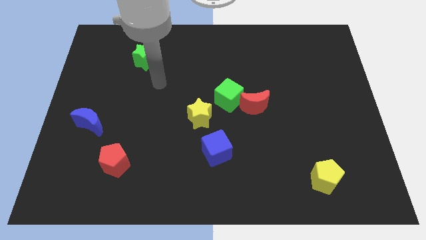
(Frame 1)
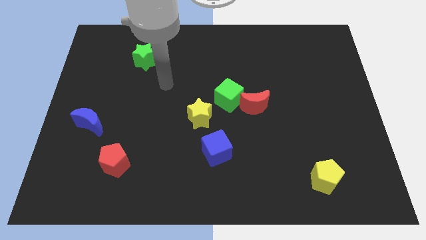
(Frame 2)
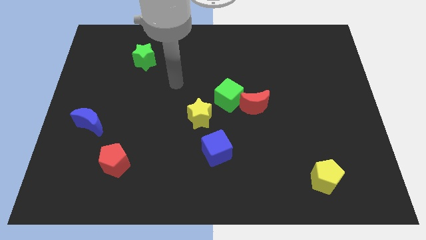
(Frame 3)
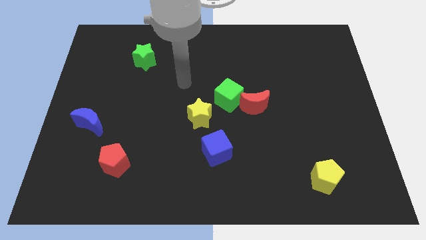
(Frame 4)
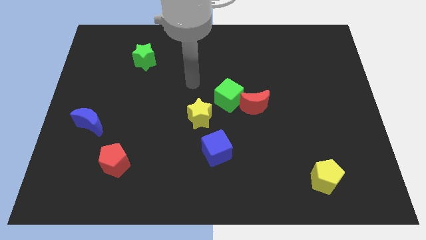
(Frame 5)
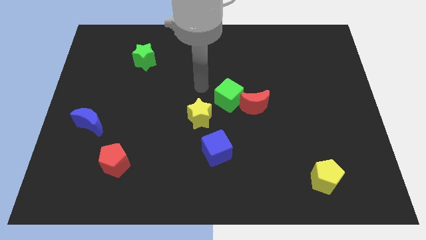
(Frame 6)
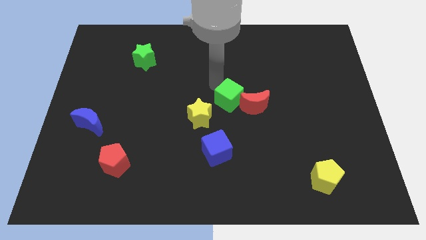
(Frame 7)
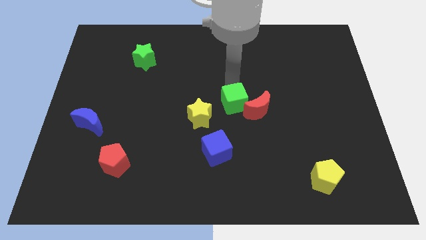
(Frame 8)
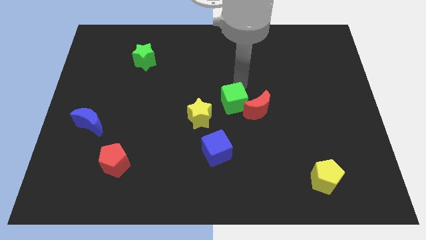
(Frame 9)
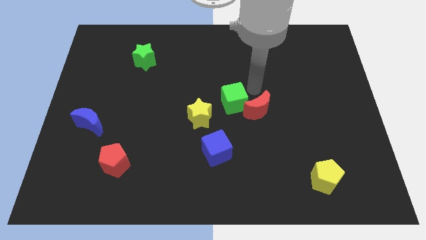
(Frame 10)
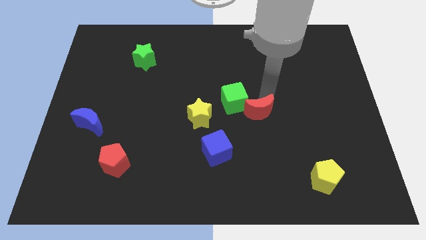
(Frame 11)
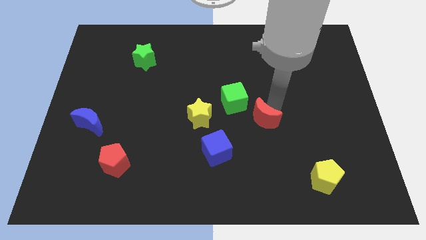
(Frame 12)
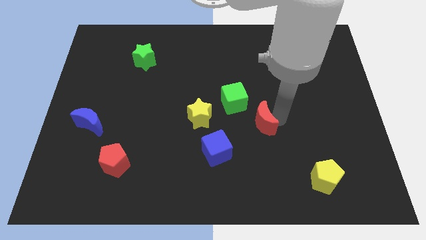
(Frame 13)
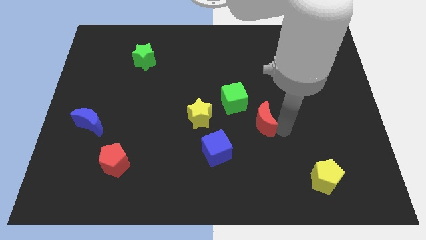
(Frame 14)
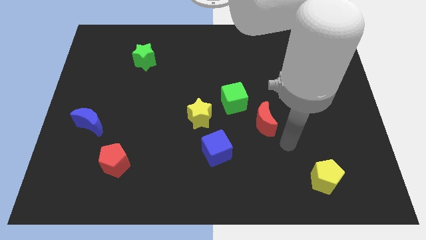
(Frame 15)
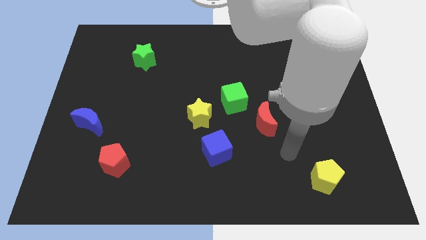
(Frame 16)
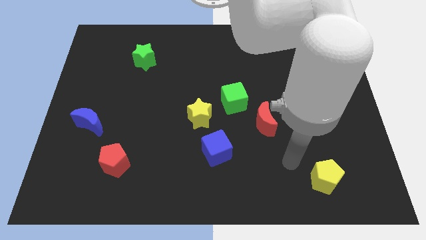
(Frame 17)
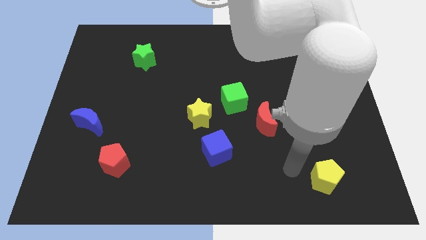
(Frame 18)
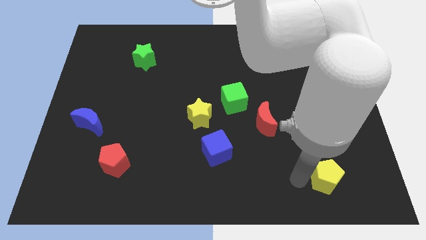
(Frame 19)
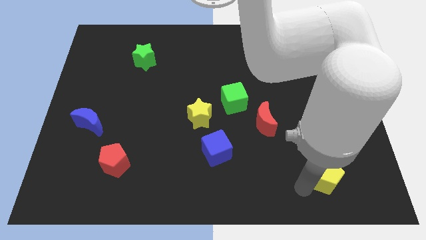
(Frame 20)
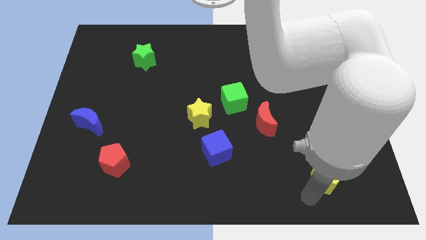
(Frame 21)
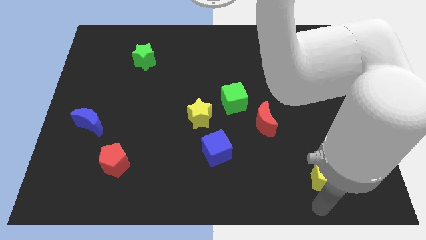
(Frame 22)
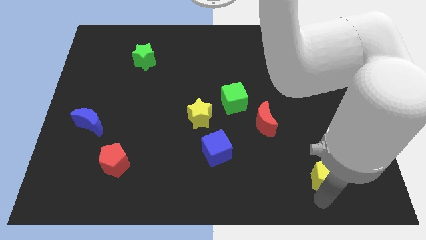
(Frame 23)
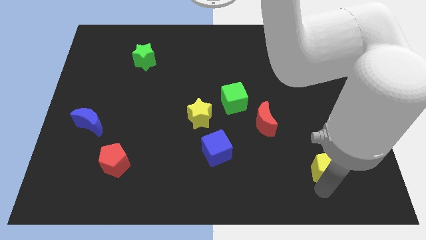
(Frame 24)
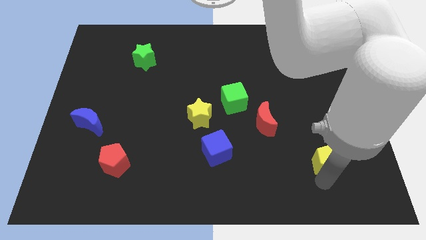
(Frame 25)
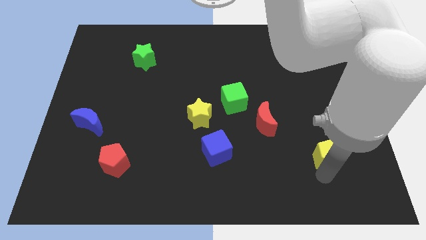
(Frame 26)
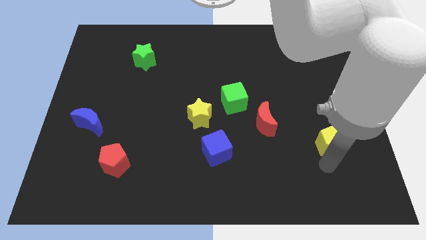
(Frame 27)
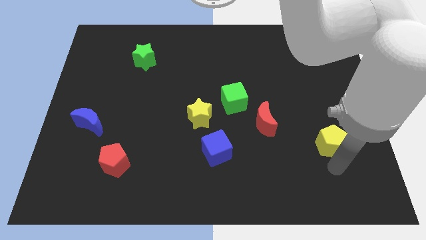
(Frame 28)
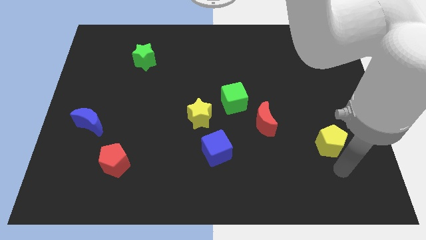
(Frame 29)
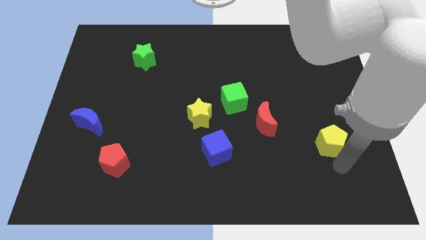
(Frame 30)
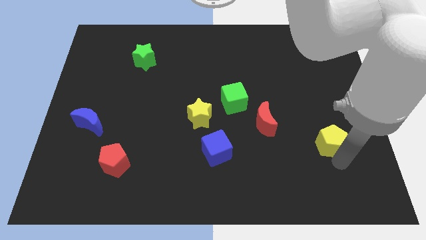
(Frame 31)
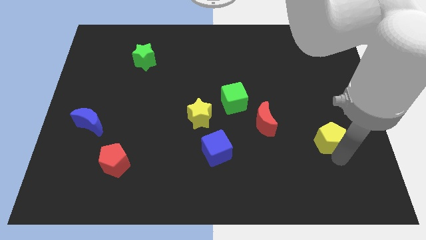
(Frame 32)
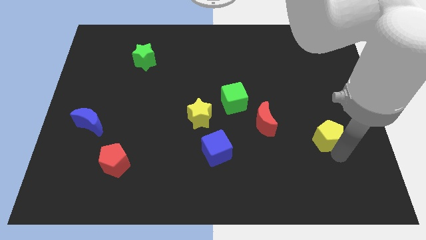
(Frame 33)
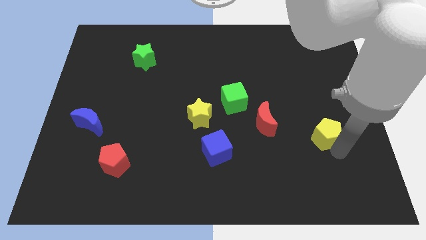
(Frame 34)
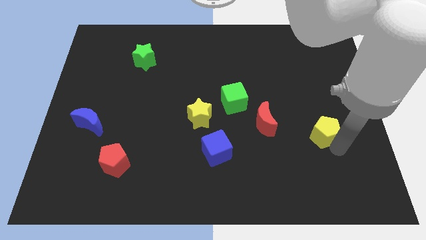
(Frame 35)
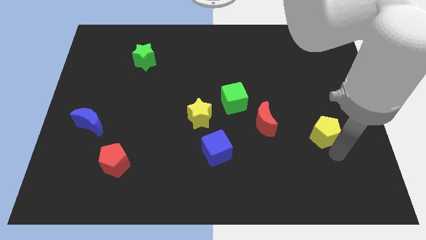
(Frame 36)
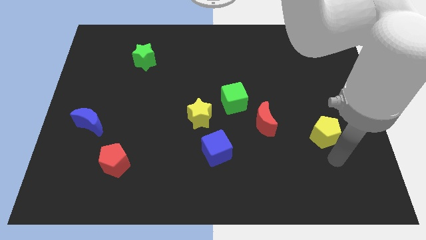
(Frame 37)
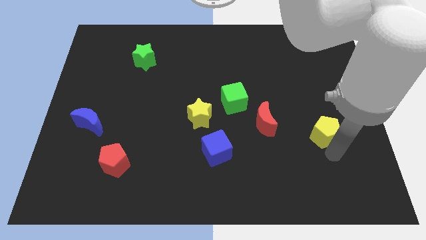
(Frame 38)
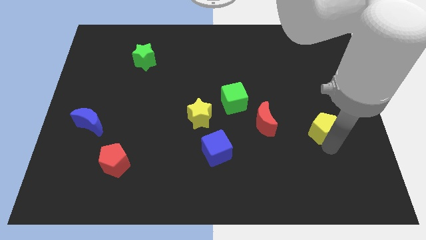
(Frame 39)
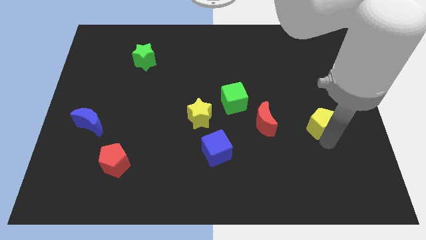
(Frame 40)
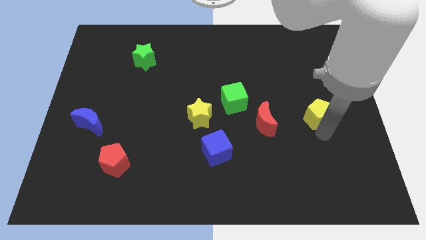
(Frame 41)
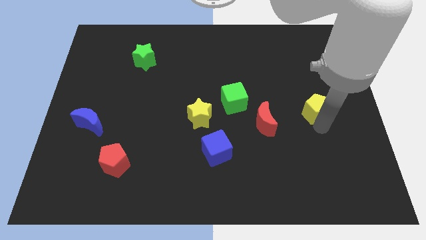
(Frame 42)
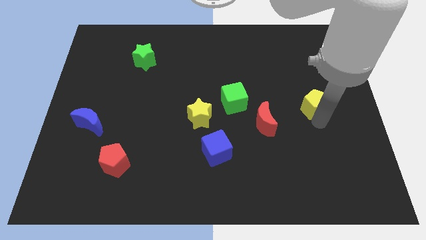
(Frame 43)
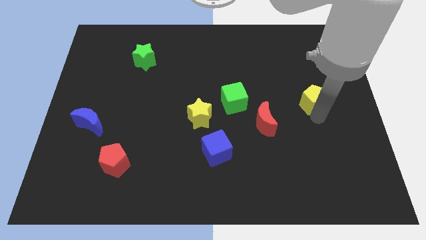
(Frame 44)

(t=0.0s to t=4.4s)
push the yellow pentagon up

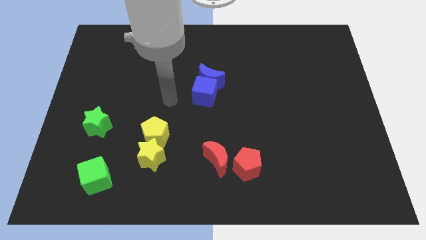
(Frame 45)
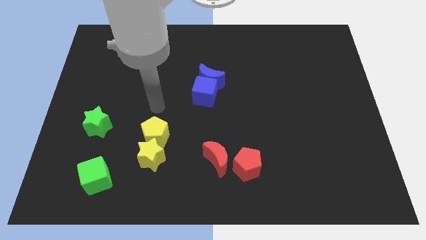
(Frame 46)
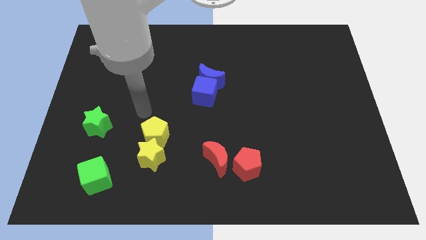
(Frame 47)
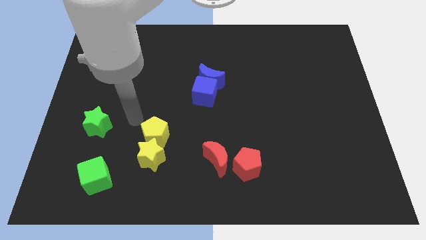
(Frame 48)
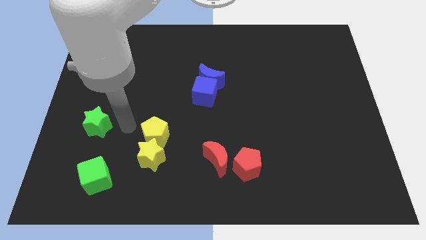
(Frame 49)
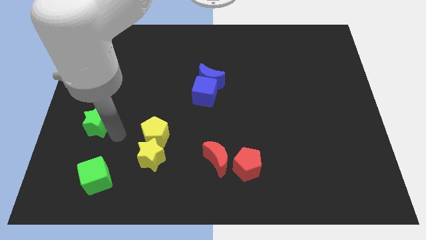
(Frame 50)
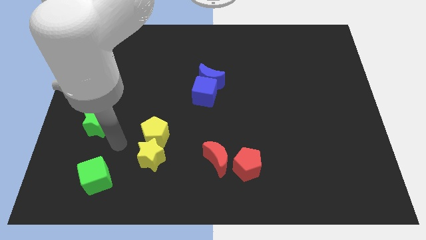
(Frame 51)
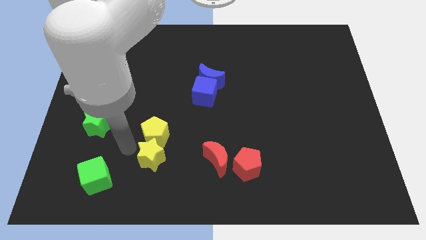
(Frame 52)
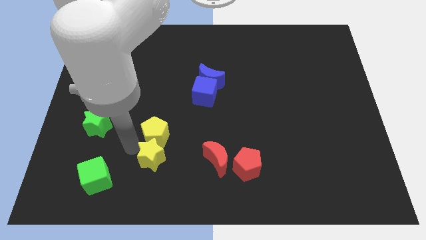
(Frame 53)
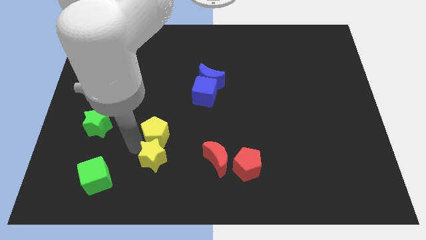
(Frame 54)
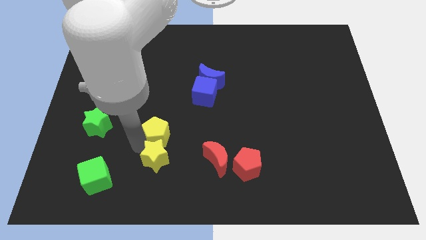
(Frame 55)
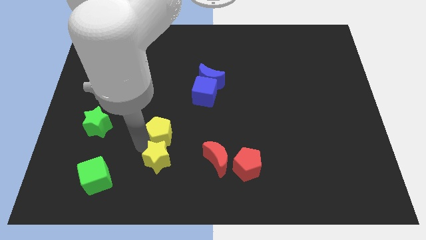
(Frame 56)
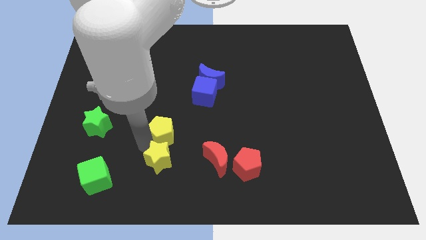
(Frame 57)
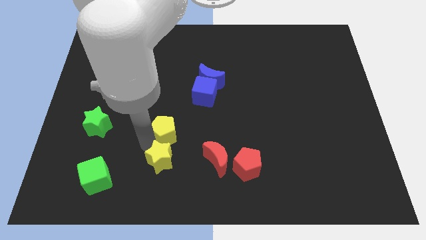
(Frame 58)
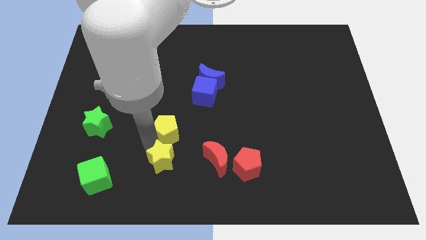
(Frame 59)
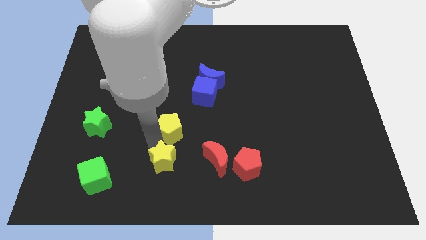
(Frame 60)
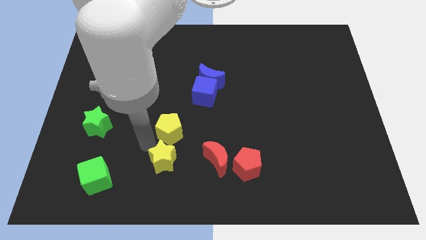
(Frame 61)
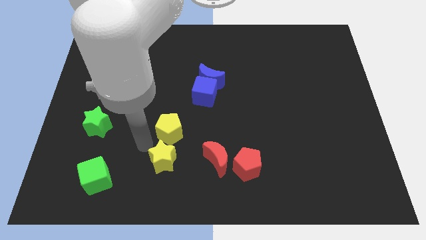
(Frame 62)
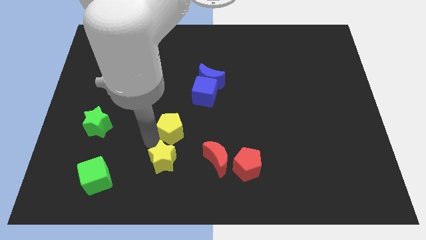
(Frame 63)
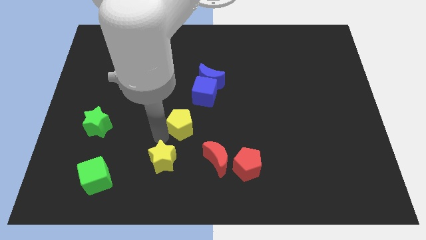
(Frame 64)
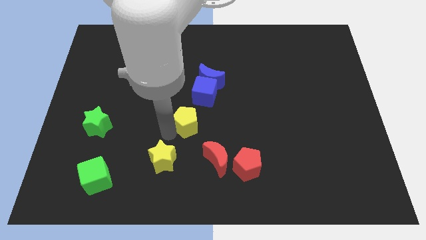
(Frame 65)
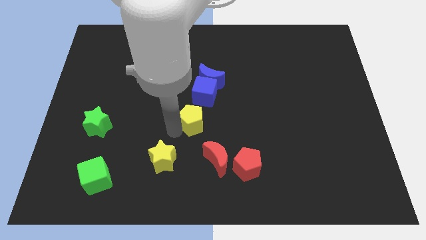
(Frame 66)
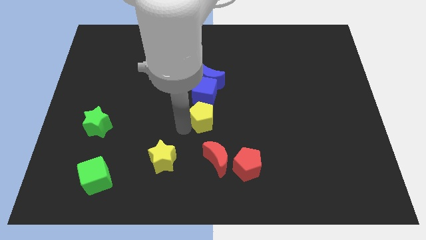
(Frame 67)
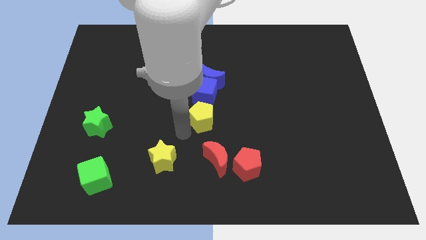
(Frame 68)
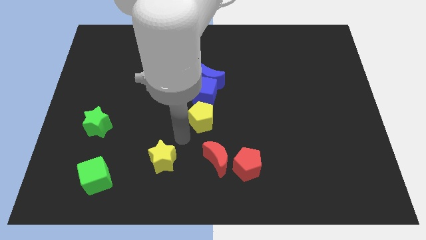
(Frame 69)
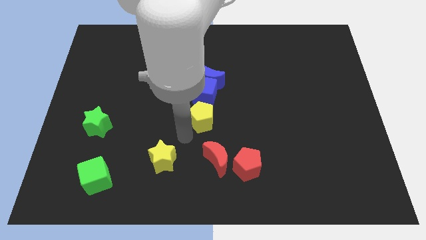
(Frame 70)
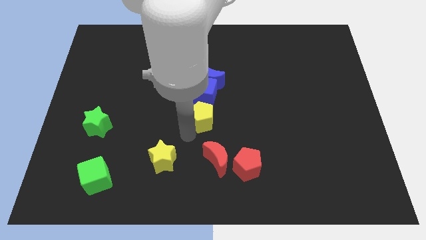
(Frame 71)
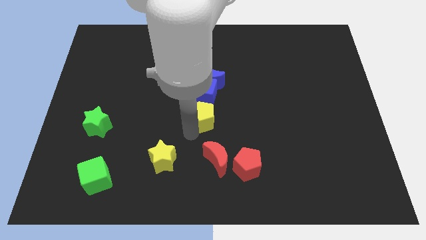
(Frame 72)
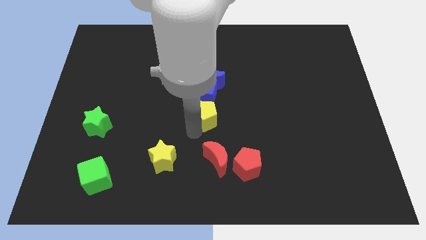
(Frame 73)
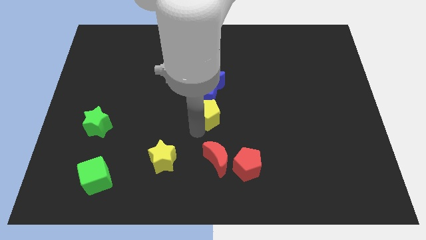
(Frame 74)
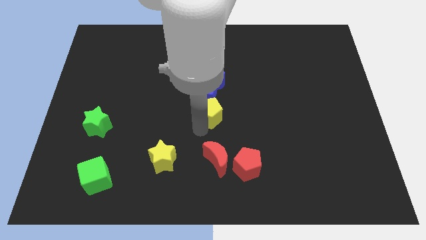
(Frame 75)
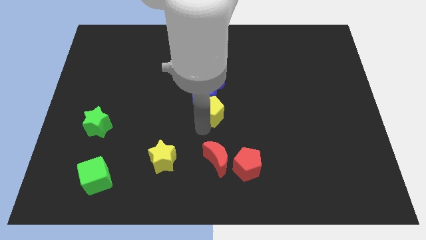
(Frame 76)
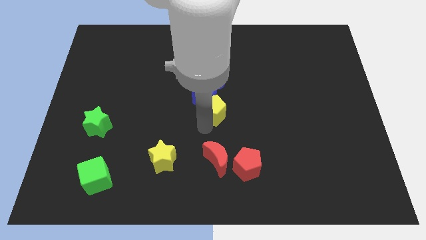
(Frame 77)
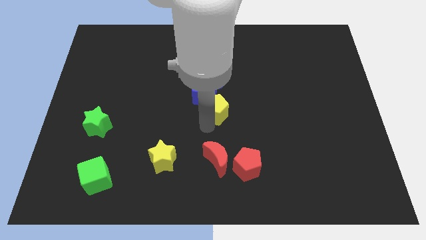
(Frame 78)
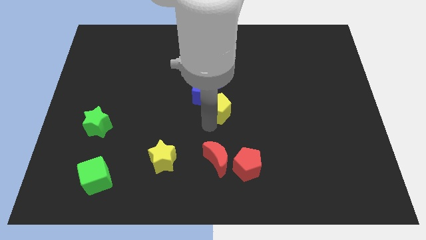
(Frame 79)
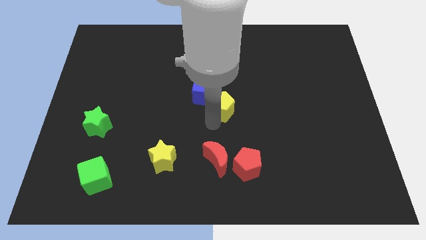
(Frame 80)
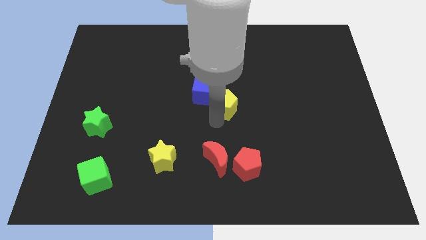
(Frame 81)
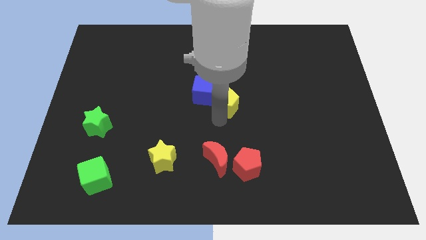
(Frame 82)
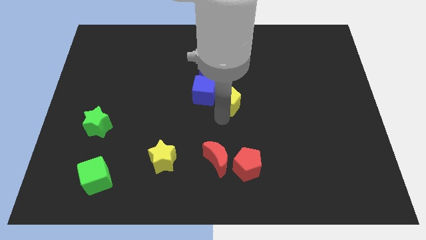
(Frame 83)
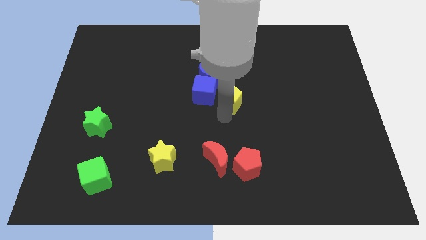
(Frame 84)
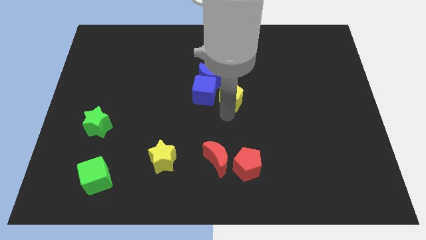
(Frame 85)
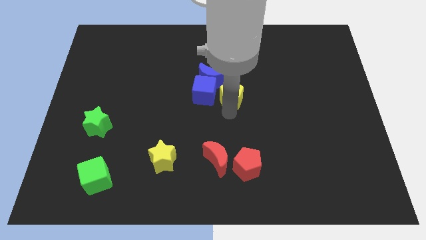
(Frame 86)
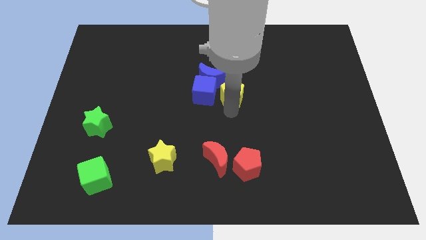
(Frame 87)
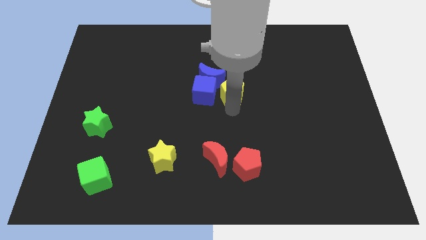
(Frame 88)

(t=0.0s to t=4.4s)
slide the yellow pentagon up and then right
